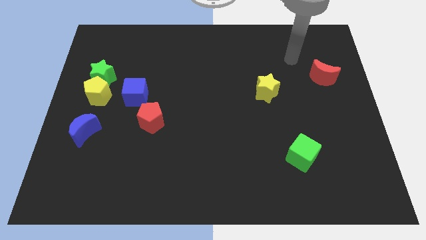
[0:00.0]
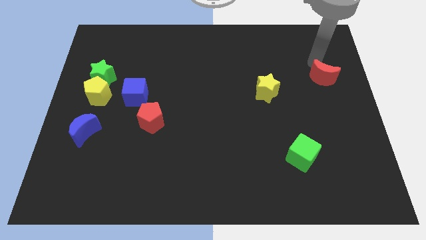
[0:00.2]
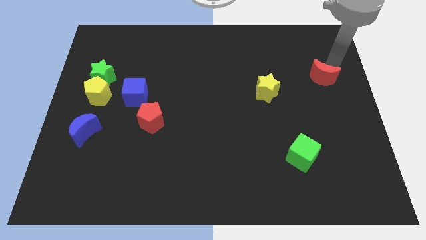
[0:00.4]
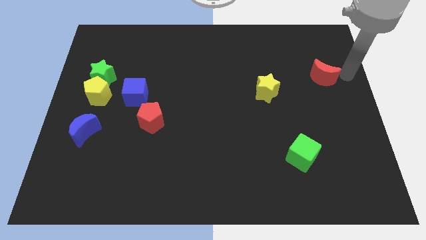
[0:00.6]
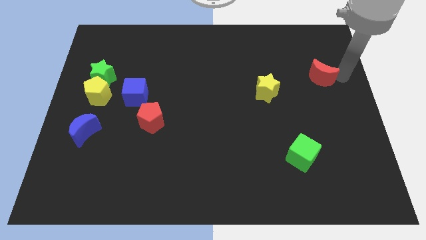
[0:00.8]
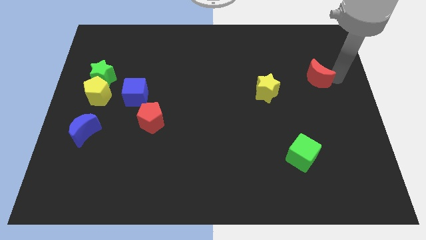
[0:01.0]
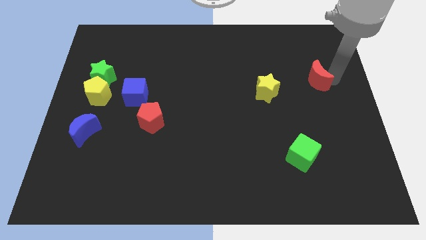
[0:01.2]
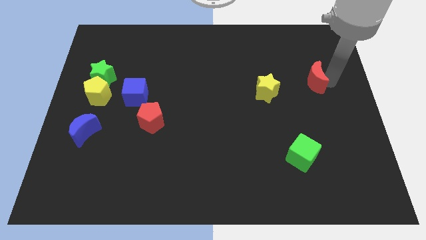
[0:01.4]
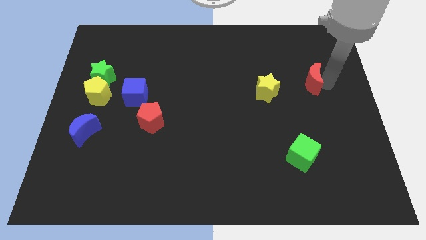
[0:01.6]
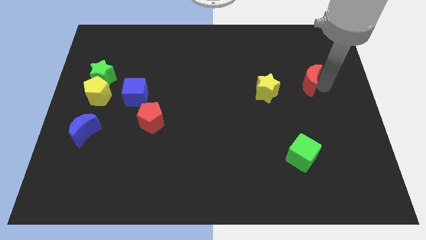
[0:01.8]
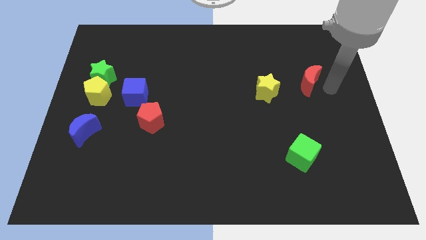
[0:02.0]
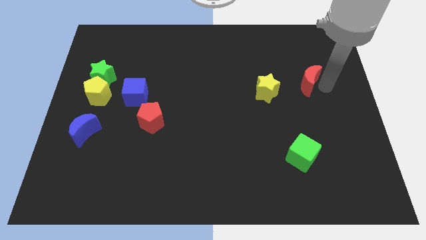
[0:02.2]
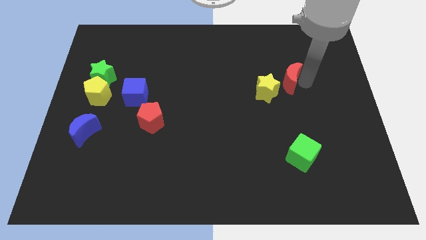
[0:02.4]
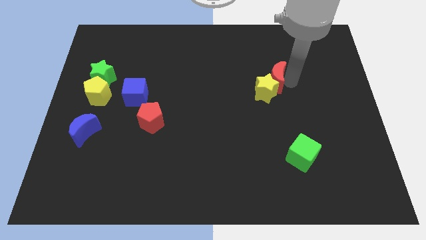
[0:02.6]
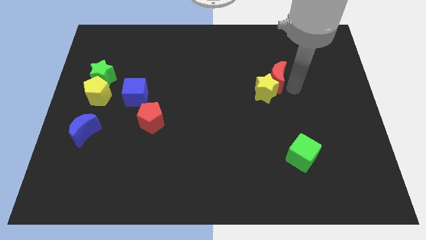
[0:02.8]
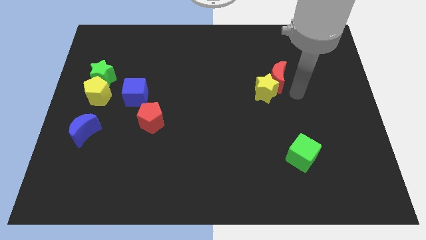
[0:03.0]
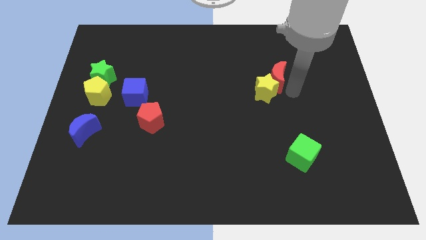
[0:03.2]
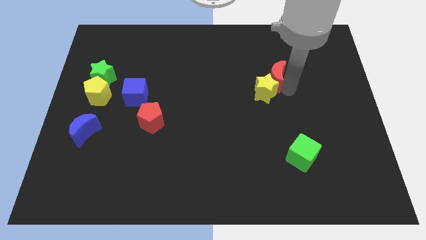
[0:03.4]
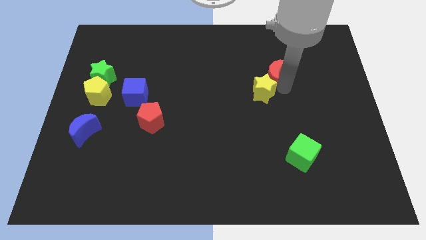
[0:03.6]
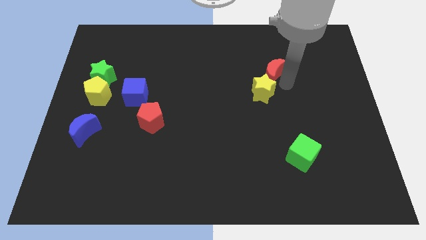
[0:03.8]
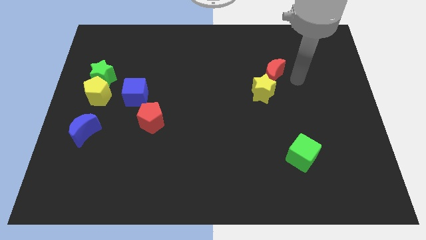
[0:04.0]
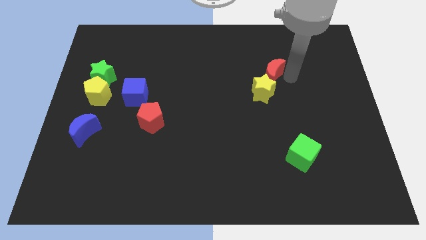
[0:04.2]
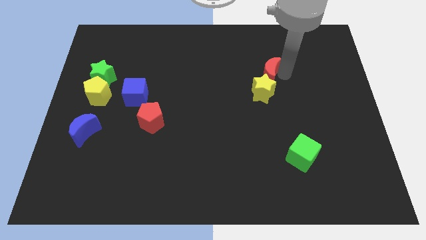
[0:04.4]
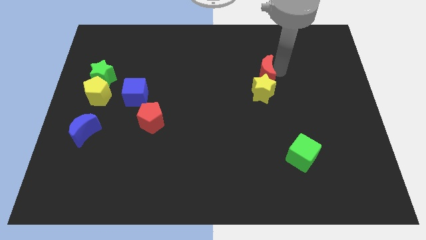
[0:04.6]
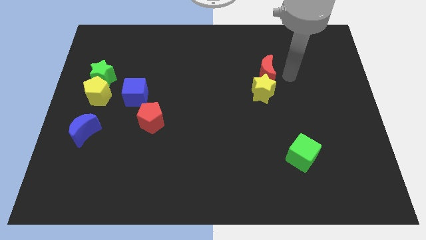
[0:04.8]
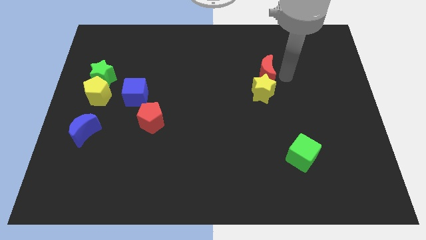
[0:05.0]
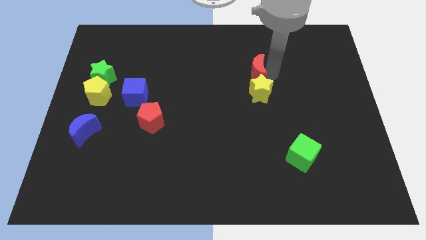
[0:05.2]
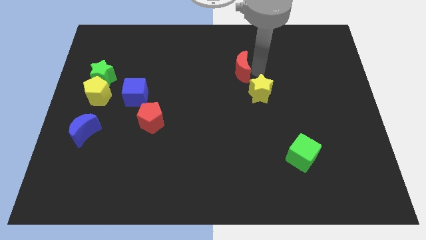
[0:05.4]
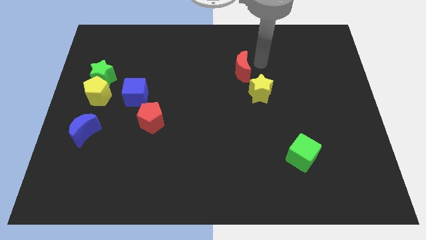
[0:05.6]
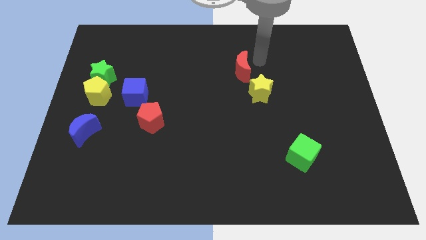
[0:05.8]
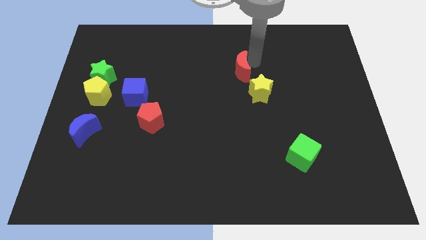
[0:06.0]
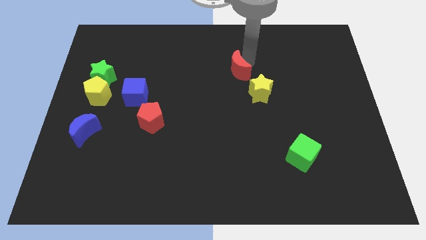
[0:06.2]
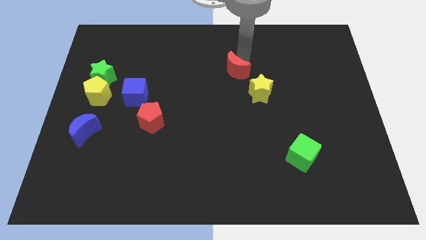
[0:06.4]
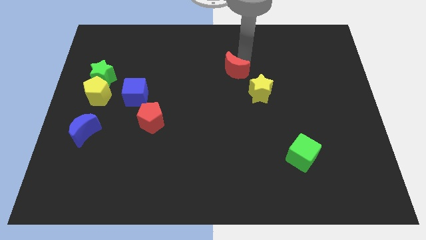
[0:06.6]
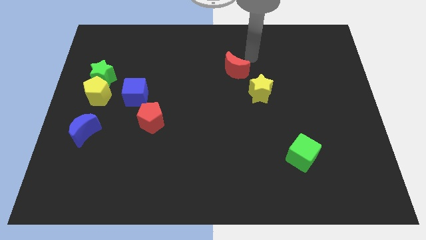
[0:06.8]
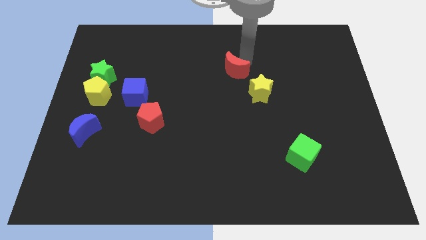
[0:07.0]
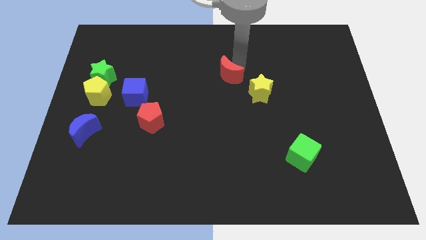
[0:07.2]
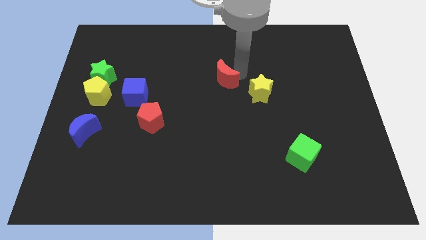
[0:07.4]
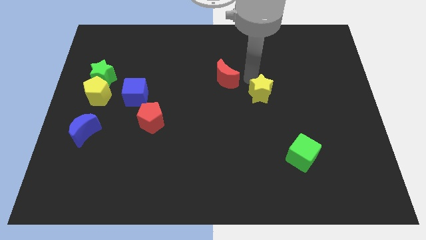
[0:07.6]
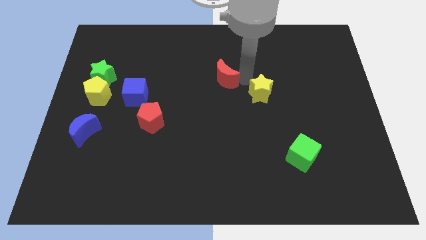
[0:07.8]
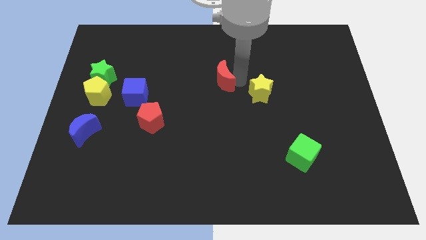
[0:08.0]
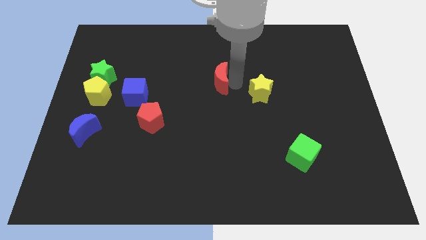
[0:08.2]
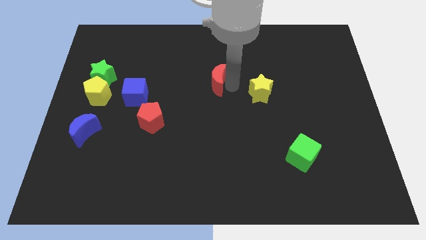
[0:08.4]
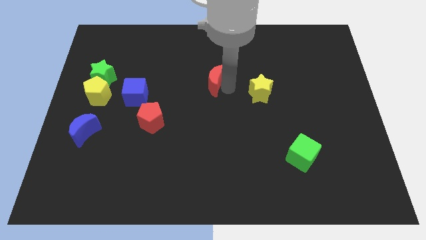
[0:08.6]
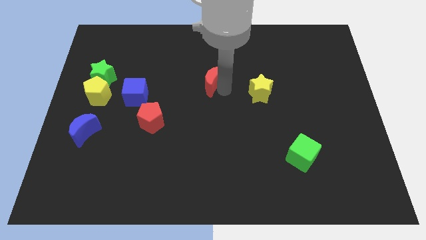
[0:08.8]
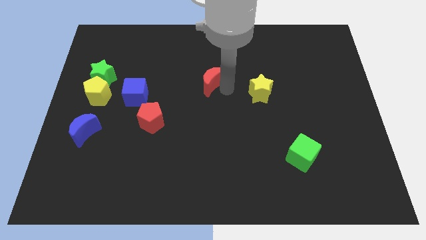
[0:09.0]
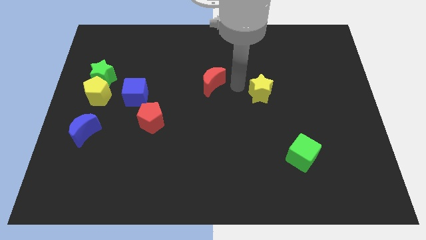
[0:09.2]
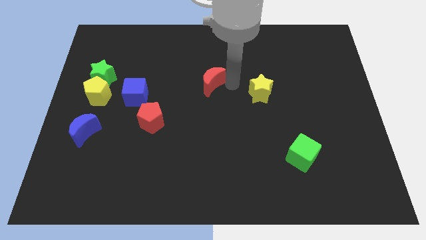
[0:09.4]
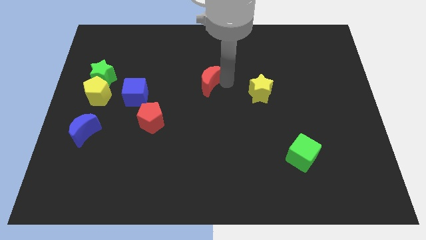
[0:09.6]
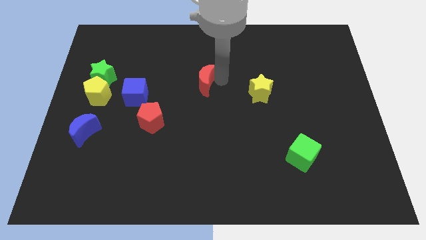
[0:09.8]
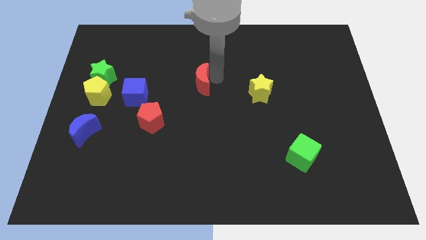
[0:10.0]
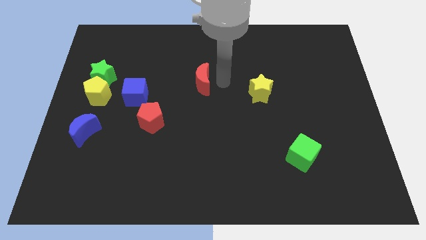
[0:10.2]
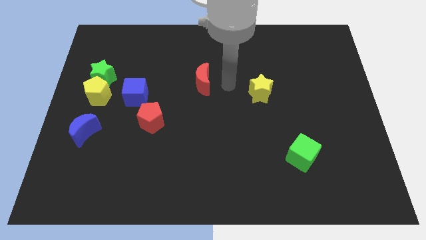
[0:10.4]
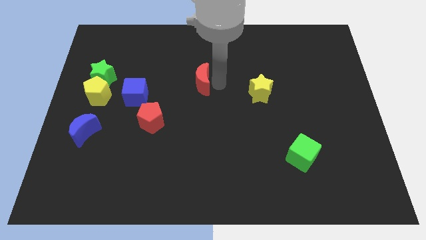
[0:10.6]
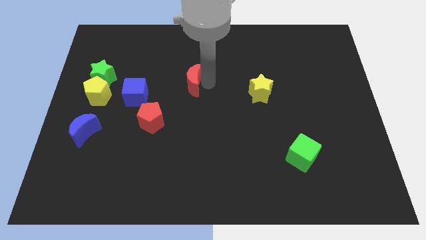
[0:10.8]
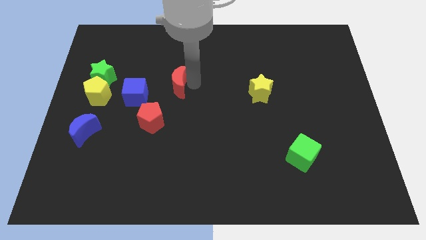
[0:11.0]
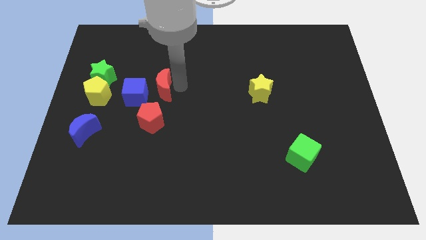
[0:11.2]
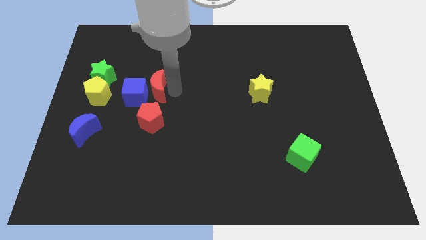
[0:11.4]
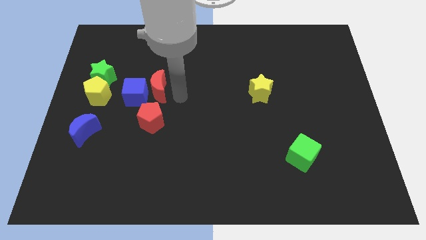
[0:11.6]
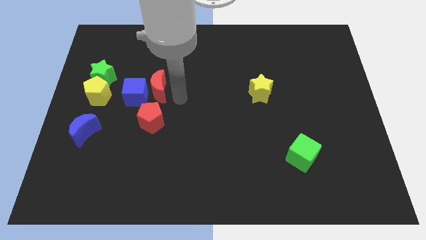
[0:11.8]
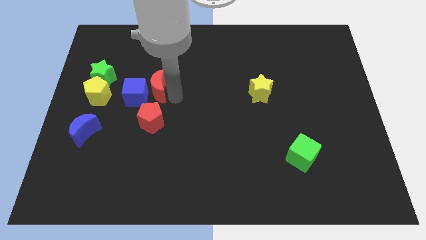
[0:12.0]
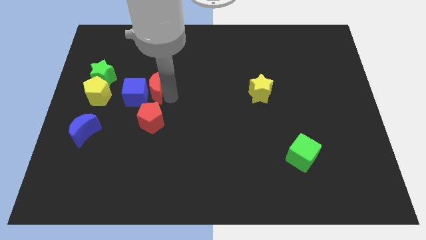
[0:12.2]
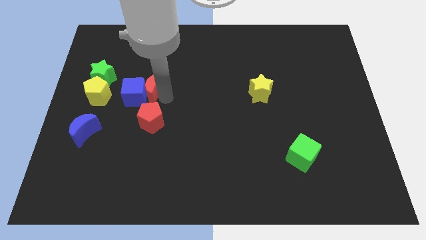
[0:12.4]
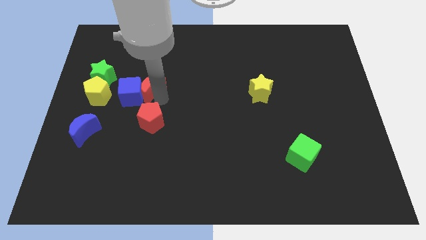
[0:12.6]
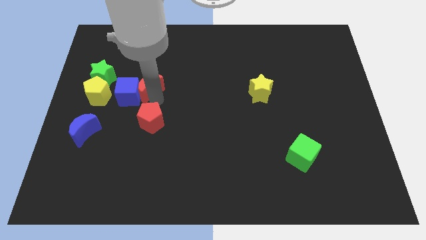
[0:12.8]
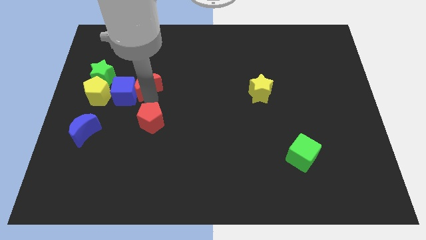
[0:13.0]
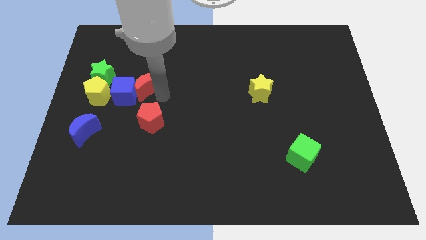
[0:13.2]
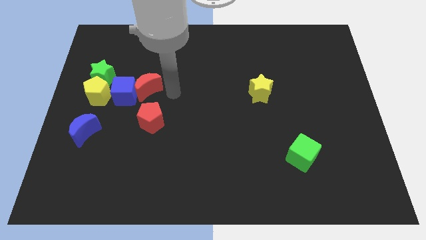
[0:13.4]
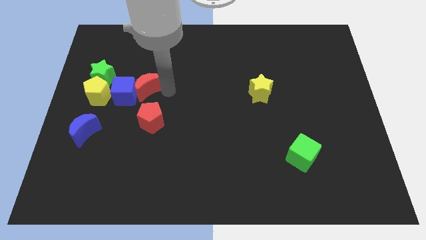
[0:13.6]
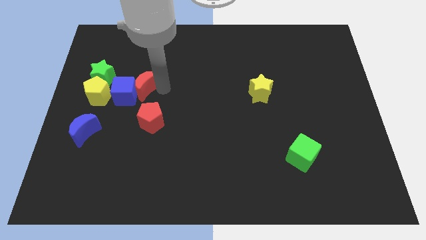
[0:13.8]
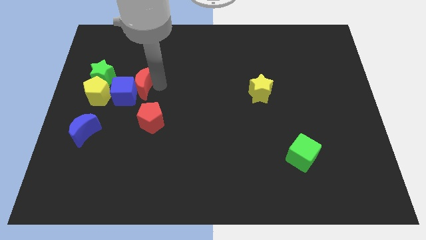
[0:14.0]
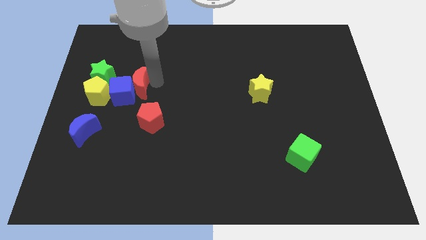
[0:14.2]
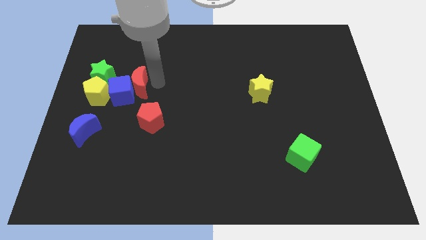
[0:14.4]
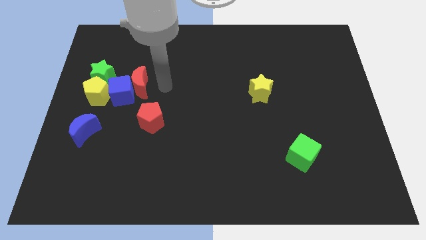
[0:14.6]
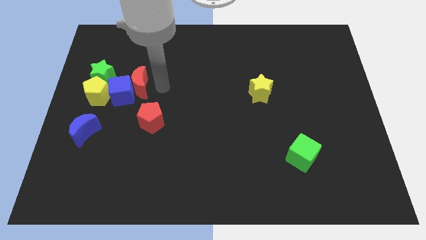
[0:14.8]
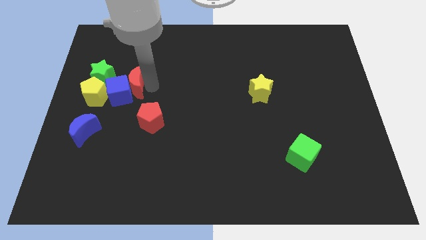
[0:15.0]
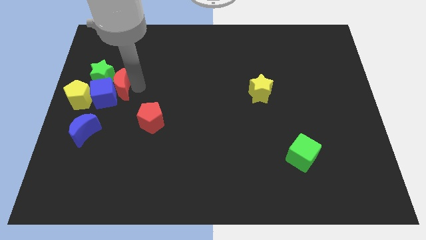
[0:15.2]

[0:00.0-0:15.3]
move the red moon to the green star
